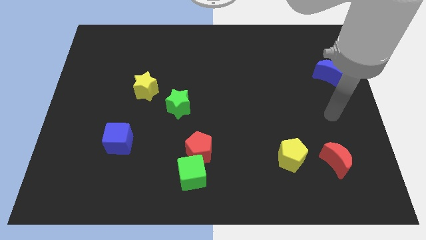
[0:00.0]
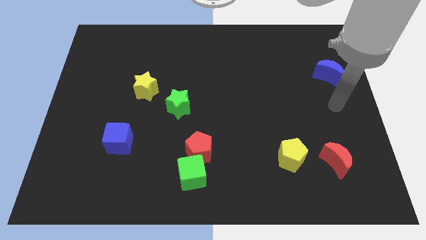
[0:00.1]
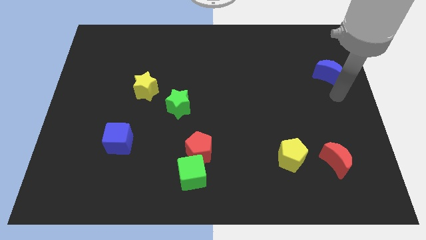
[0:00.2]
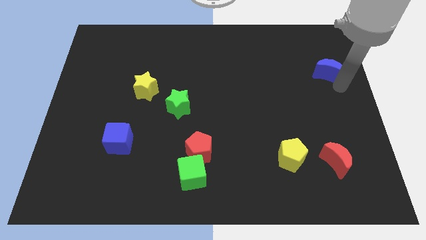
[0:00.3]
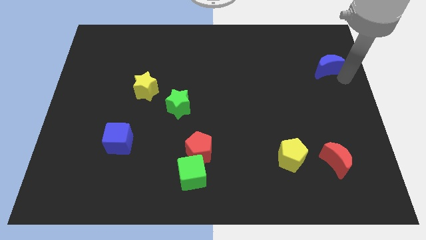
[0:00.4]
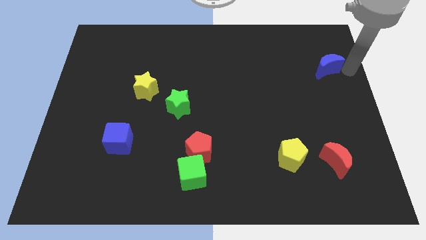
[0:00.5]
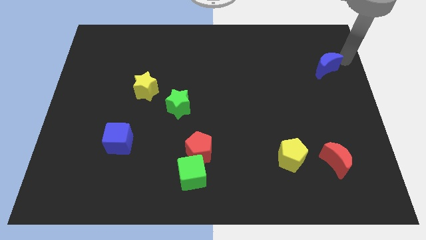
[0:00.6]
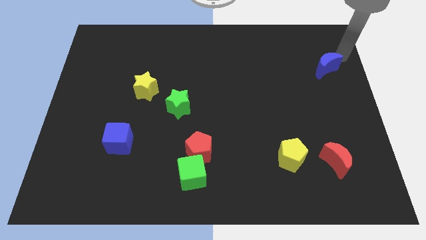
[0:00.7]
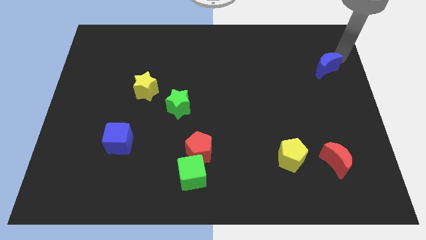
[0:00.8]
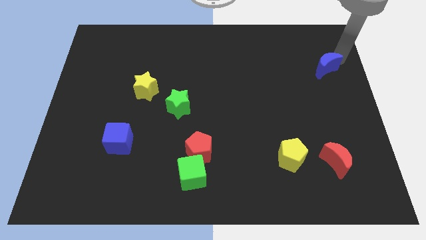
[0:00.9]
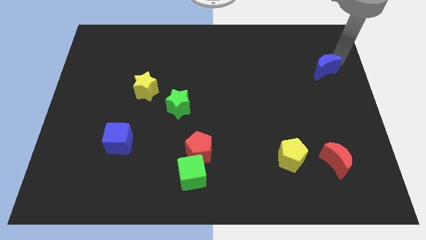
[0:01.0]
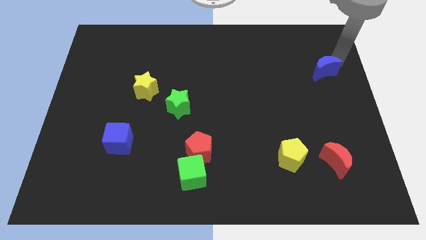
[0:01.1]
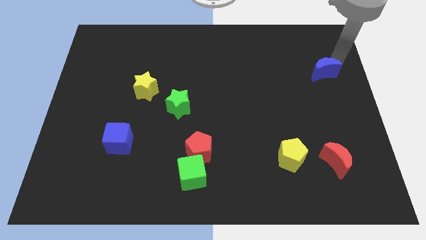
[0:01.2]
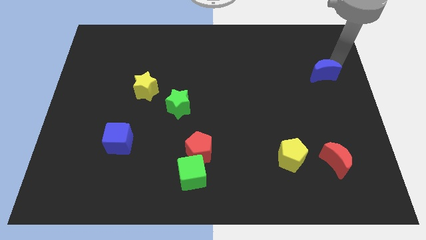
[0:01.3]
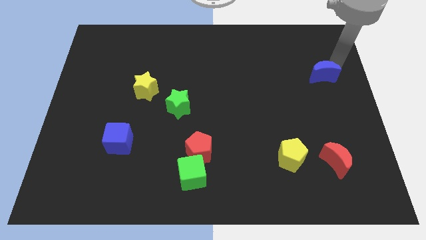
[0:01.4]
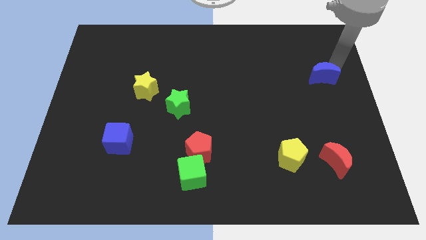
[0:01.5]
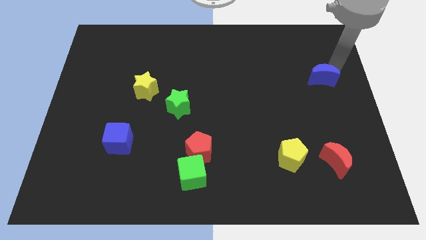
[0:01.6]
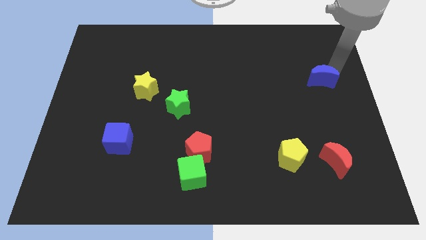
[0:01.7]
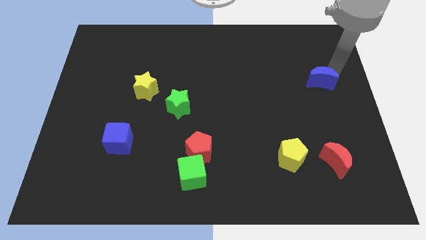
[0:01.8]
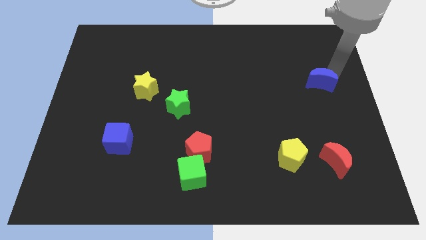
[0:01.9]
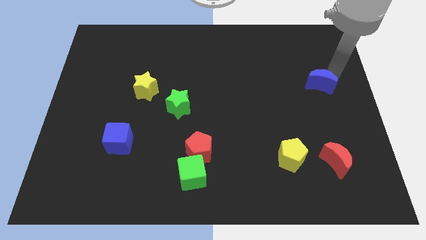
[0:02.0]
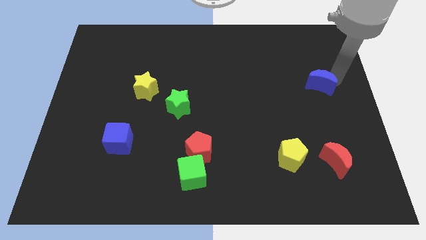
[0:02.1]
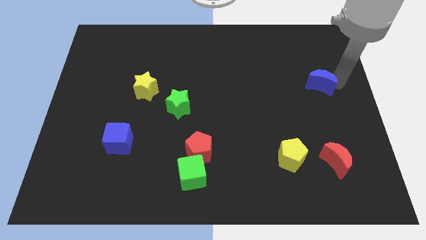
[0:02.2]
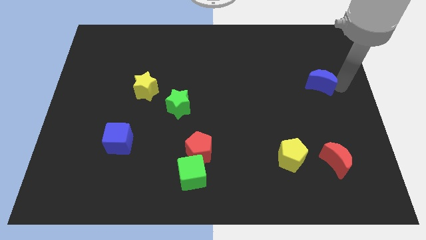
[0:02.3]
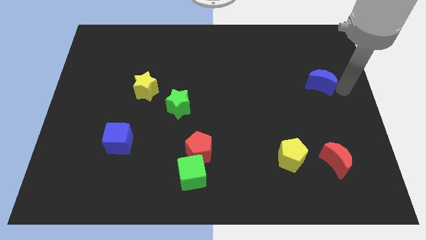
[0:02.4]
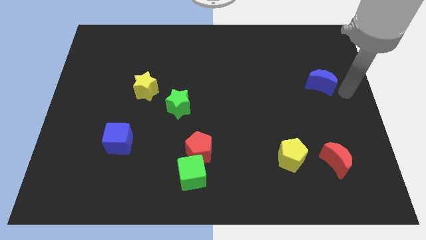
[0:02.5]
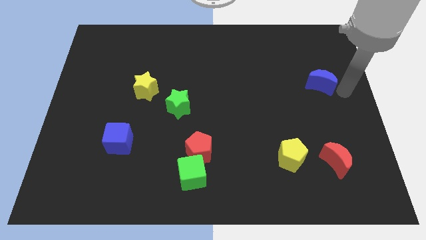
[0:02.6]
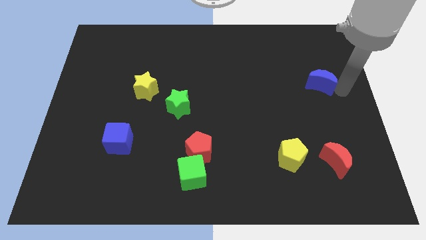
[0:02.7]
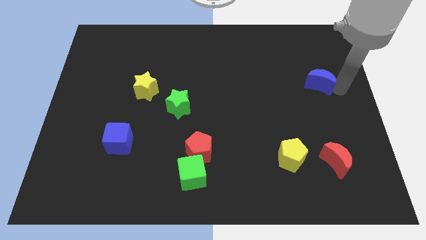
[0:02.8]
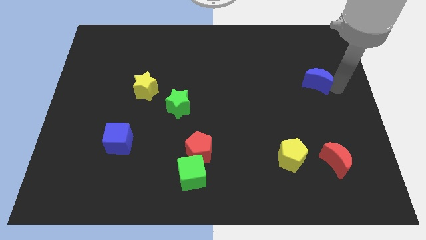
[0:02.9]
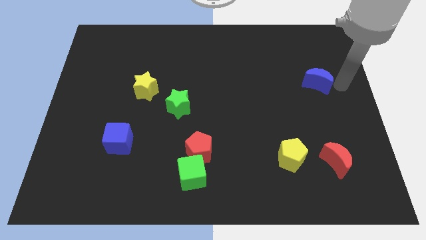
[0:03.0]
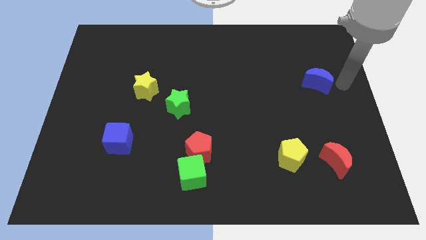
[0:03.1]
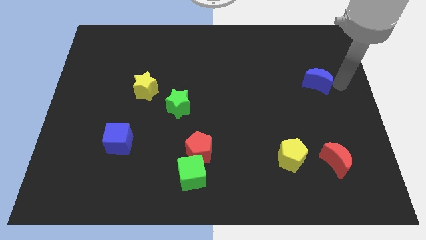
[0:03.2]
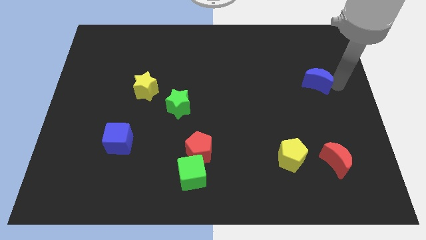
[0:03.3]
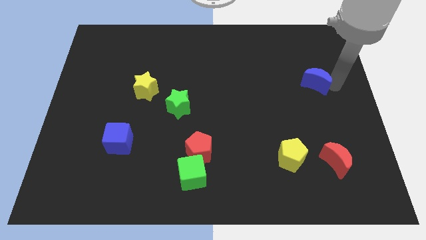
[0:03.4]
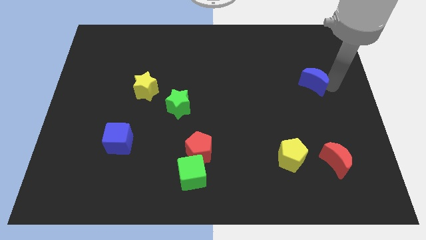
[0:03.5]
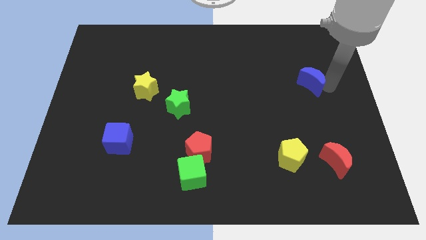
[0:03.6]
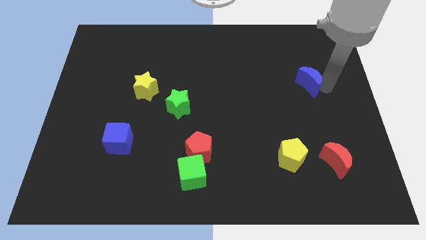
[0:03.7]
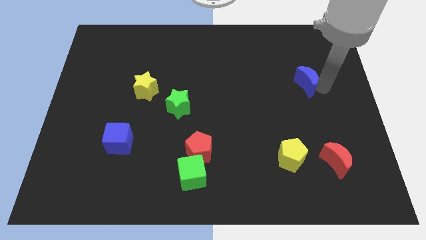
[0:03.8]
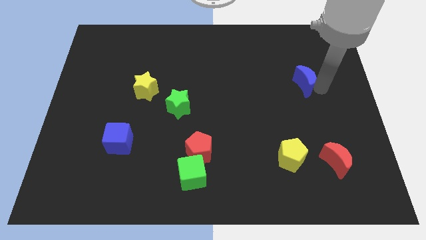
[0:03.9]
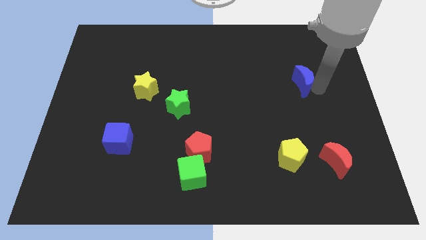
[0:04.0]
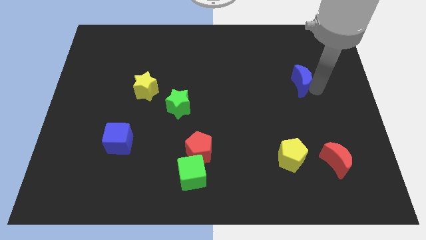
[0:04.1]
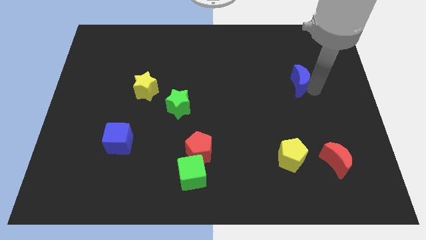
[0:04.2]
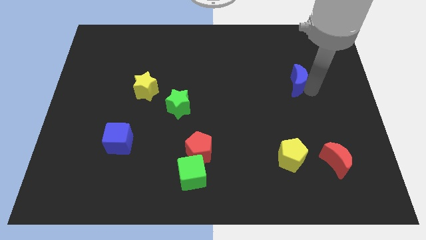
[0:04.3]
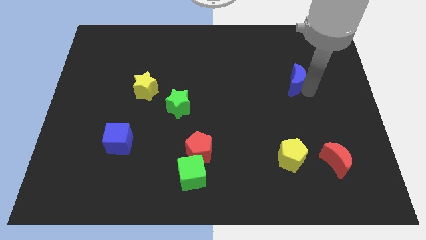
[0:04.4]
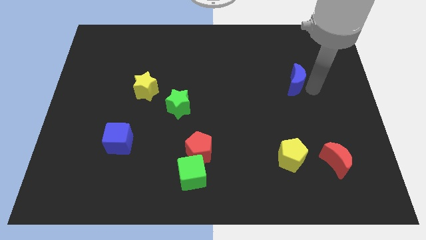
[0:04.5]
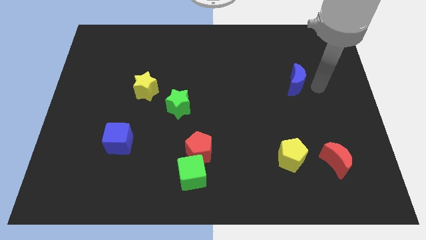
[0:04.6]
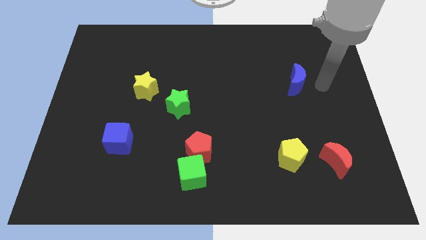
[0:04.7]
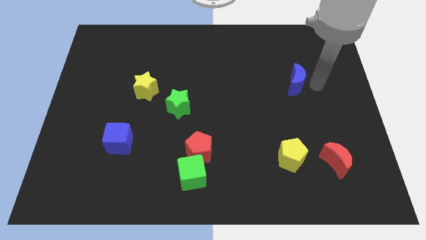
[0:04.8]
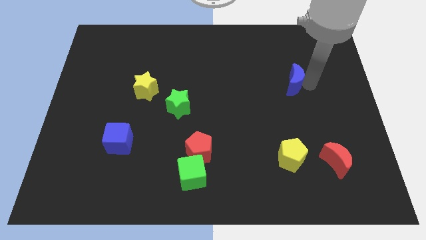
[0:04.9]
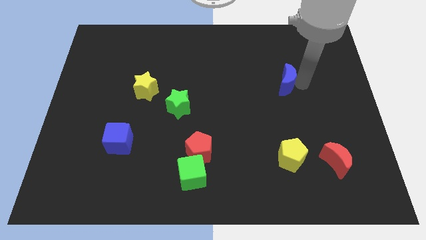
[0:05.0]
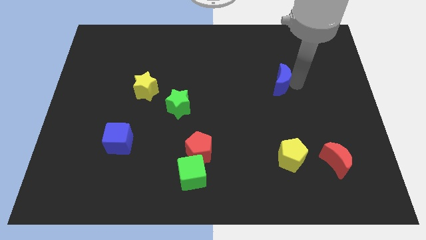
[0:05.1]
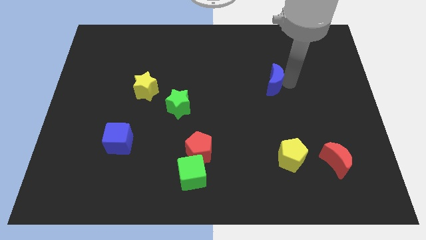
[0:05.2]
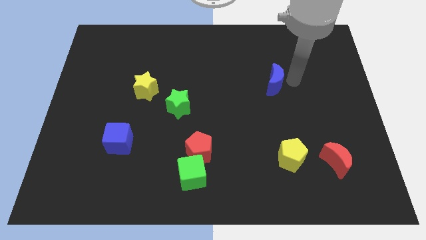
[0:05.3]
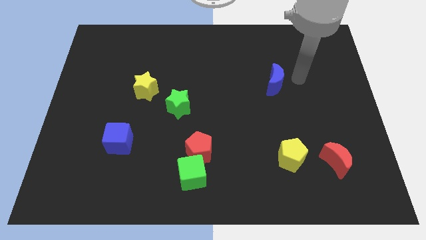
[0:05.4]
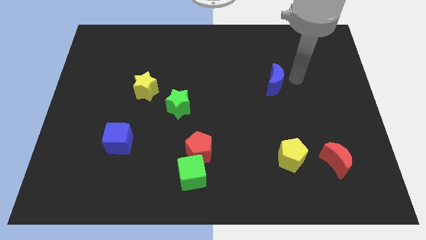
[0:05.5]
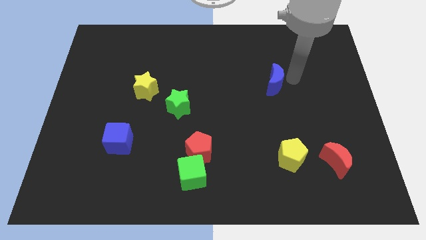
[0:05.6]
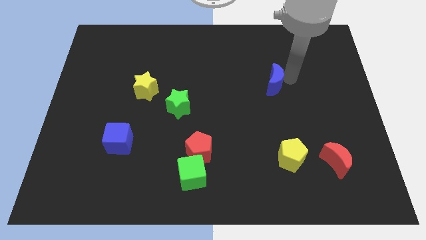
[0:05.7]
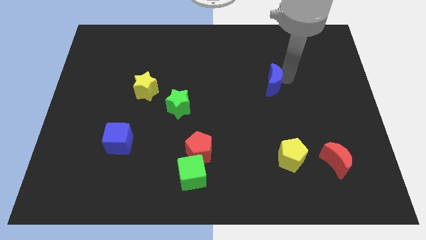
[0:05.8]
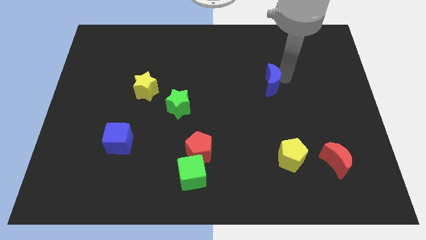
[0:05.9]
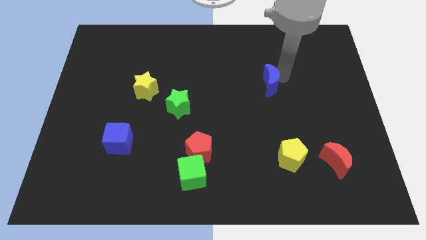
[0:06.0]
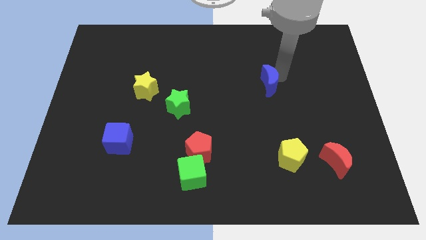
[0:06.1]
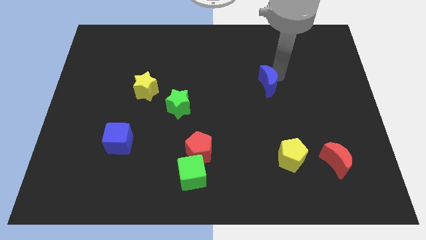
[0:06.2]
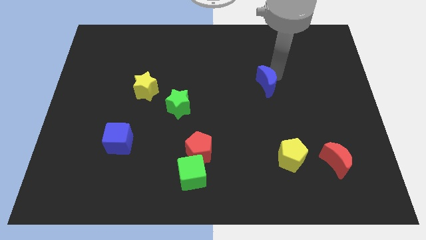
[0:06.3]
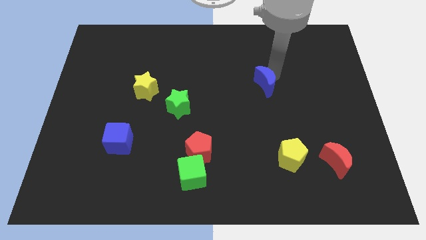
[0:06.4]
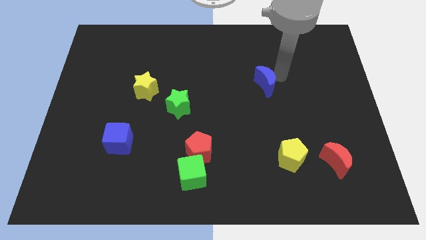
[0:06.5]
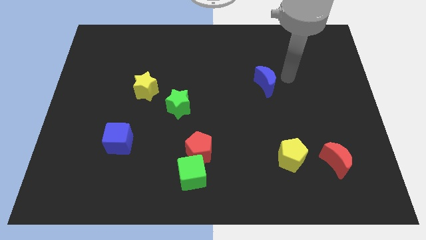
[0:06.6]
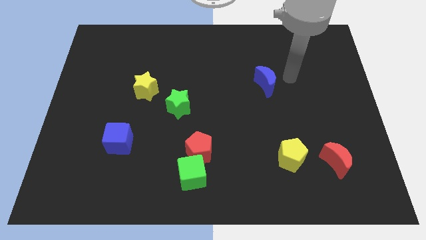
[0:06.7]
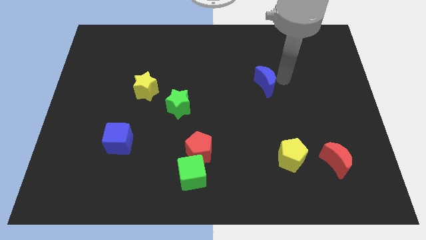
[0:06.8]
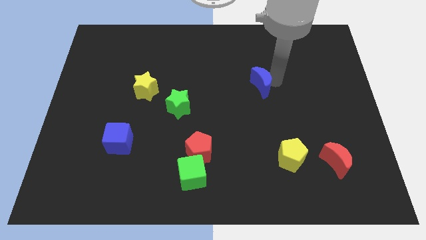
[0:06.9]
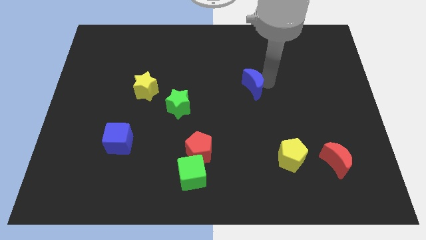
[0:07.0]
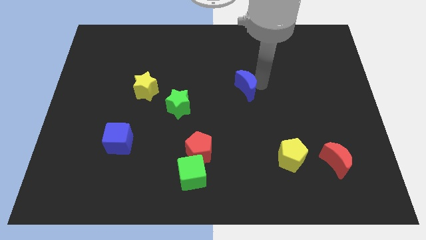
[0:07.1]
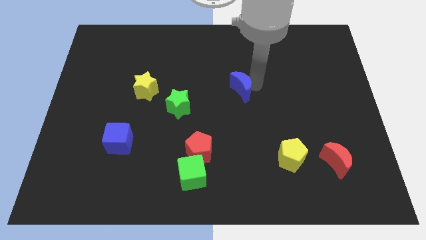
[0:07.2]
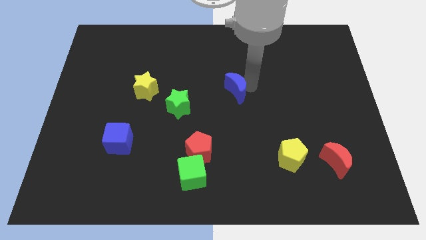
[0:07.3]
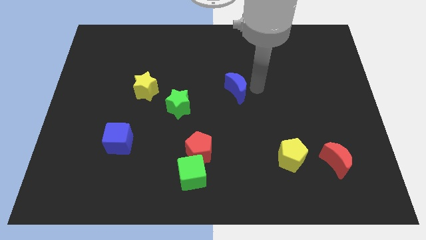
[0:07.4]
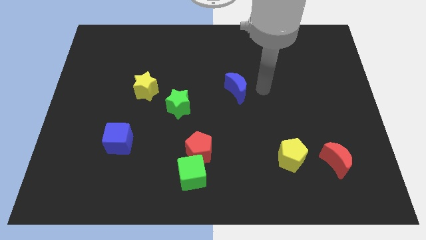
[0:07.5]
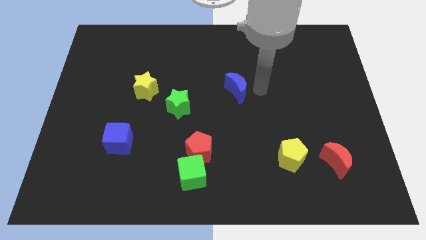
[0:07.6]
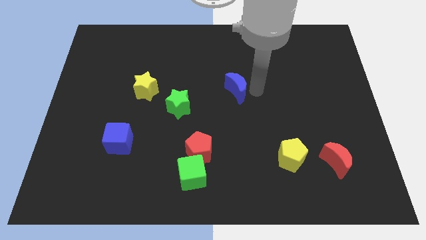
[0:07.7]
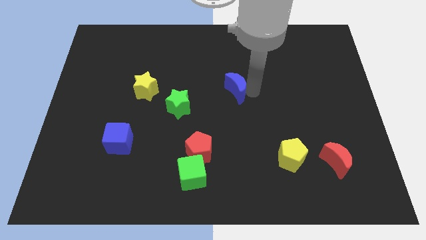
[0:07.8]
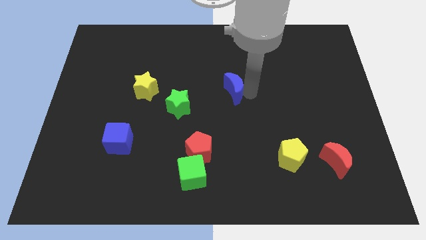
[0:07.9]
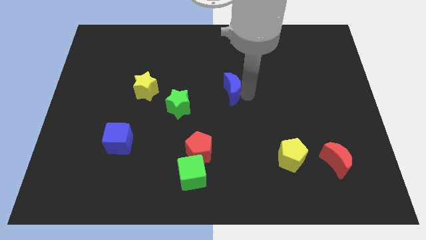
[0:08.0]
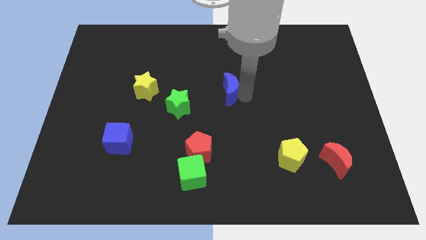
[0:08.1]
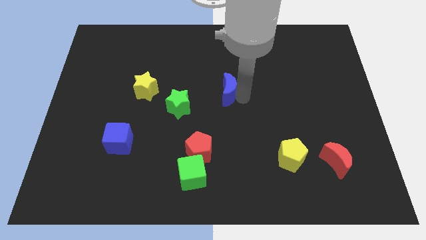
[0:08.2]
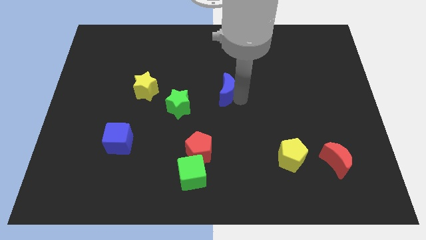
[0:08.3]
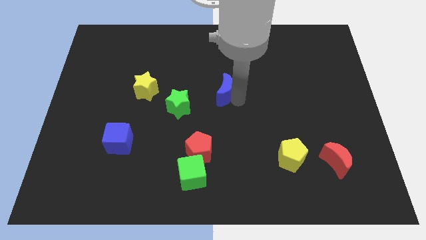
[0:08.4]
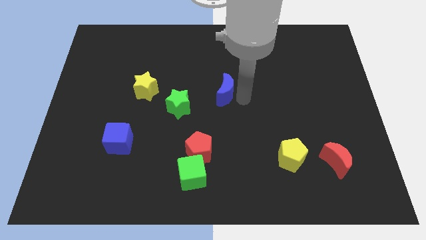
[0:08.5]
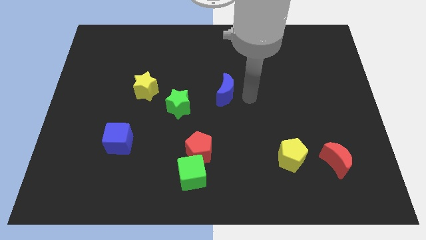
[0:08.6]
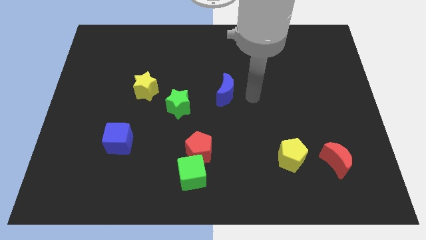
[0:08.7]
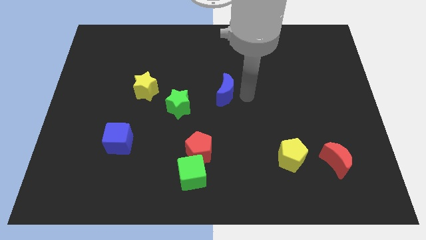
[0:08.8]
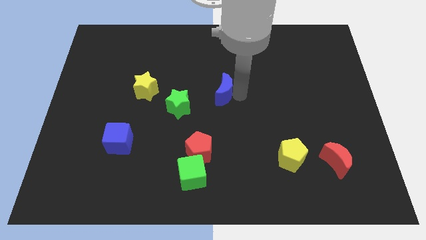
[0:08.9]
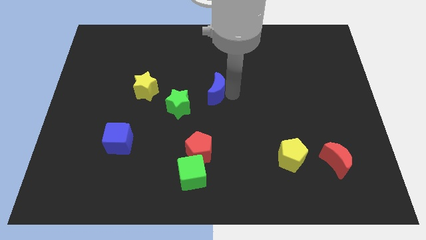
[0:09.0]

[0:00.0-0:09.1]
move the blue moon to the top right side of the green star
